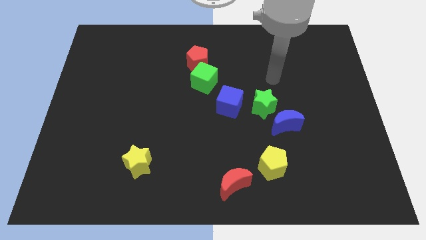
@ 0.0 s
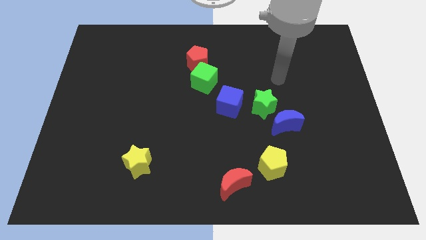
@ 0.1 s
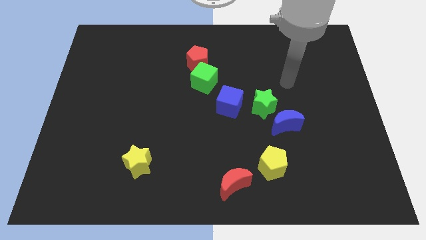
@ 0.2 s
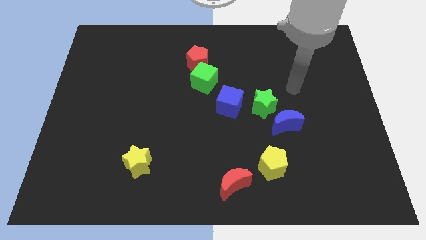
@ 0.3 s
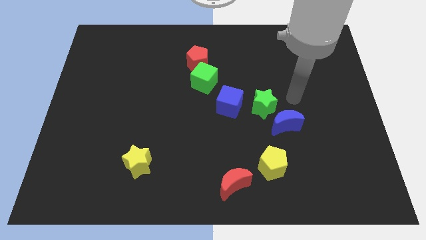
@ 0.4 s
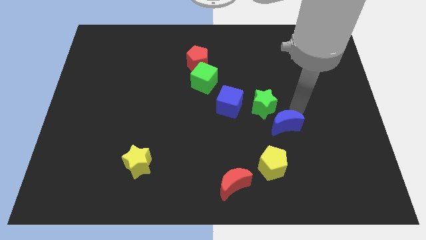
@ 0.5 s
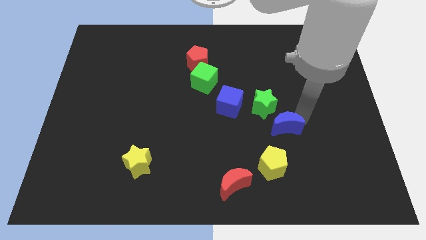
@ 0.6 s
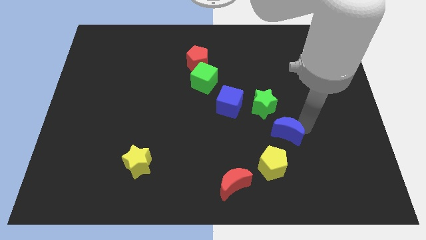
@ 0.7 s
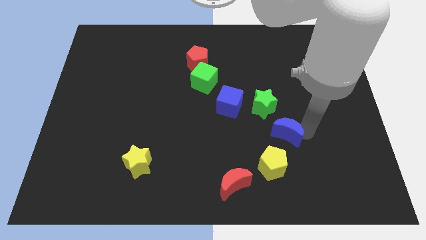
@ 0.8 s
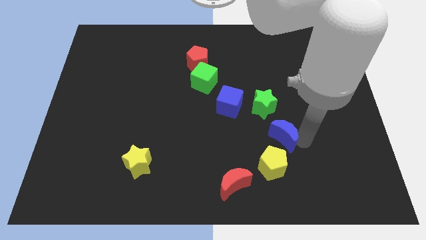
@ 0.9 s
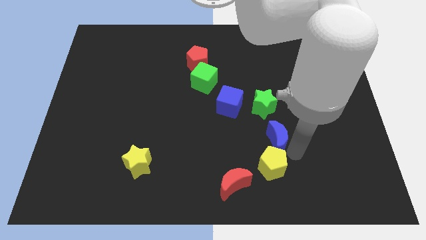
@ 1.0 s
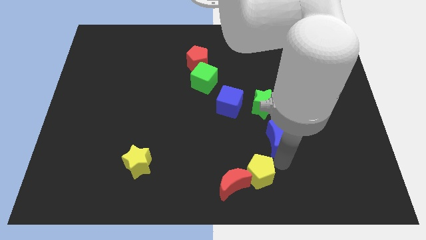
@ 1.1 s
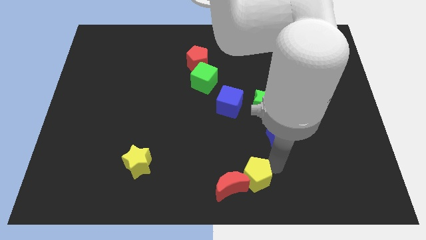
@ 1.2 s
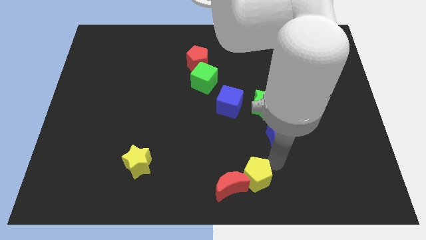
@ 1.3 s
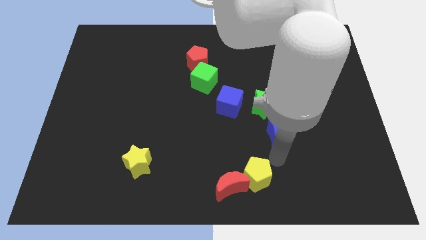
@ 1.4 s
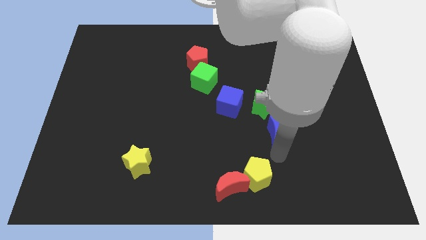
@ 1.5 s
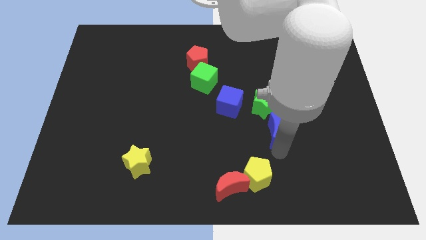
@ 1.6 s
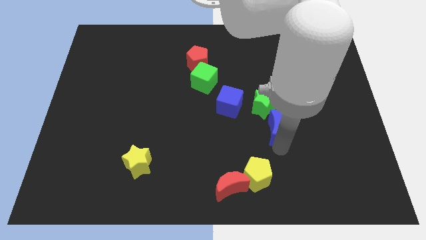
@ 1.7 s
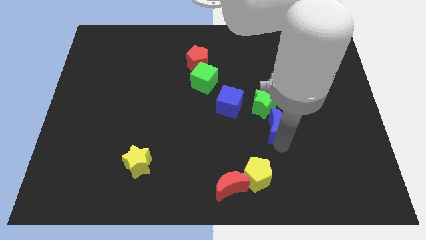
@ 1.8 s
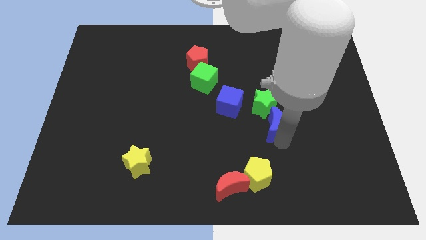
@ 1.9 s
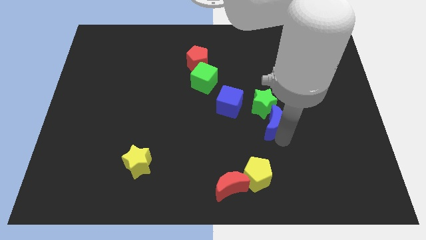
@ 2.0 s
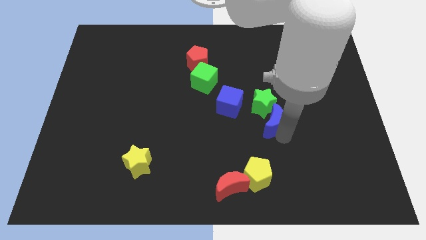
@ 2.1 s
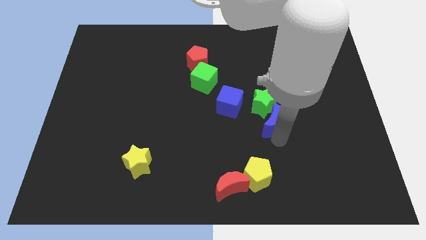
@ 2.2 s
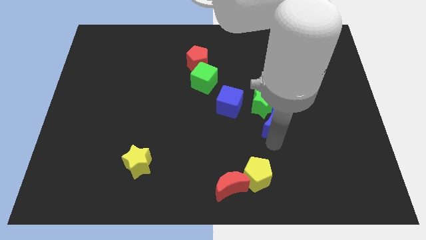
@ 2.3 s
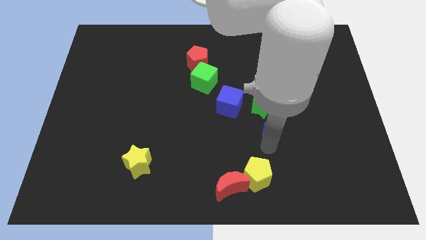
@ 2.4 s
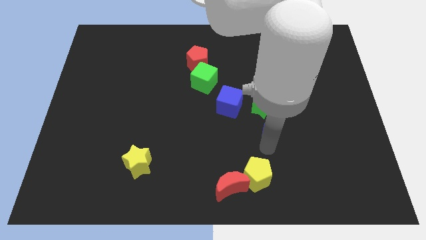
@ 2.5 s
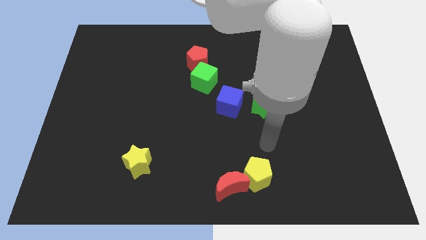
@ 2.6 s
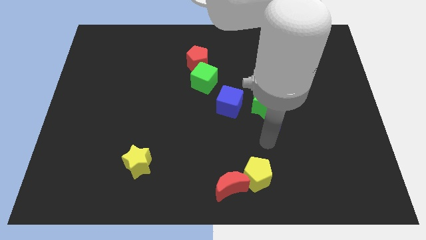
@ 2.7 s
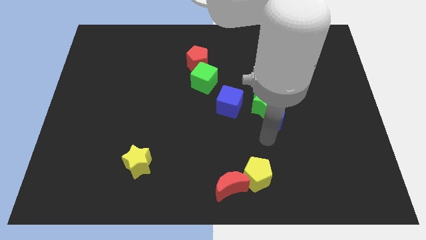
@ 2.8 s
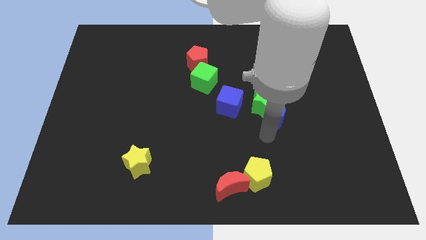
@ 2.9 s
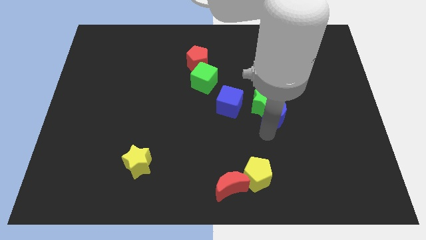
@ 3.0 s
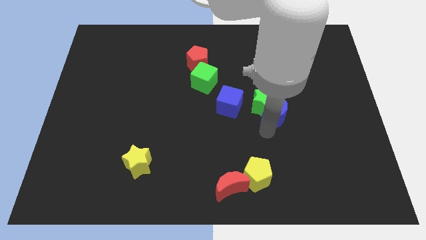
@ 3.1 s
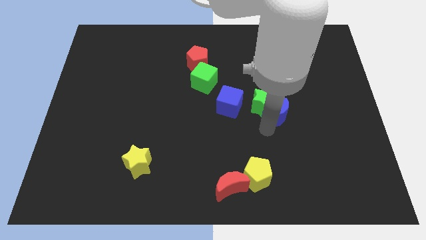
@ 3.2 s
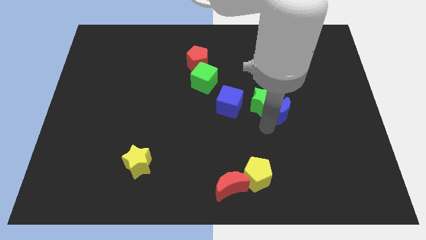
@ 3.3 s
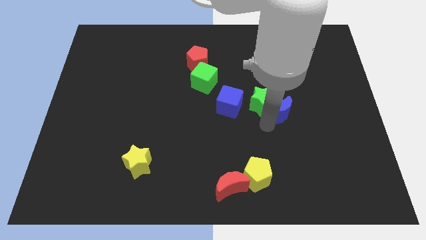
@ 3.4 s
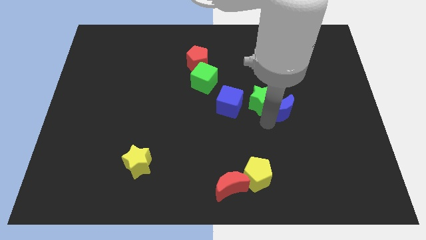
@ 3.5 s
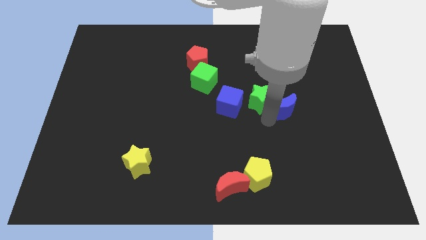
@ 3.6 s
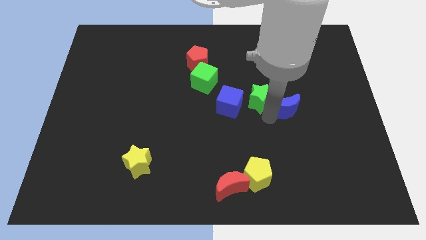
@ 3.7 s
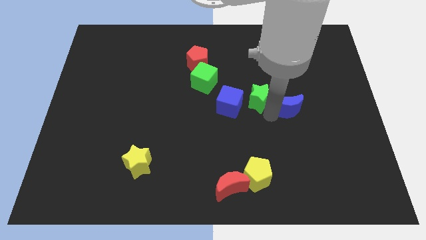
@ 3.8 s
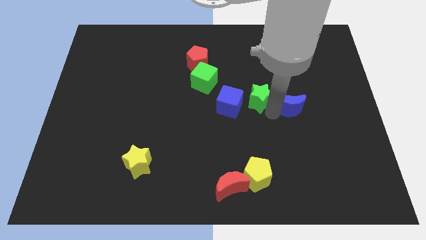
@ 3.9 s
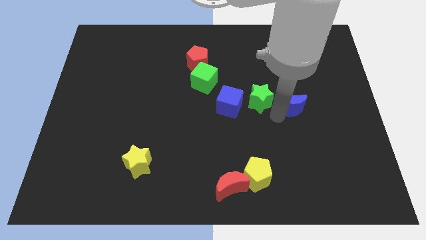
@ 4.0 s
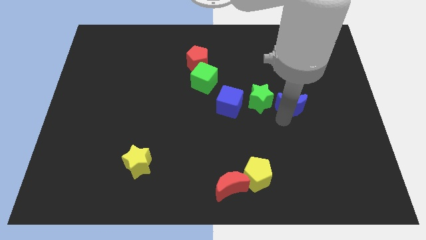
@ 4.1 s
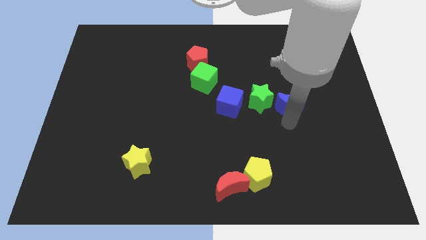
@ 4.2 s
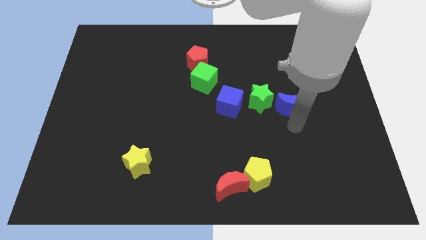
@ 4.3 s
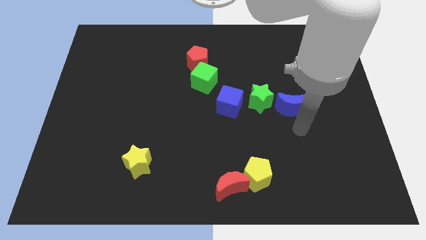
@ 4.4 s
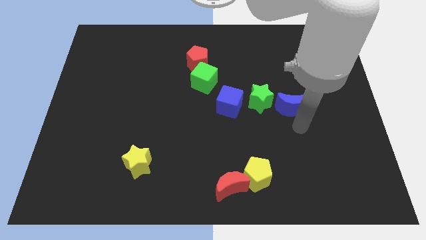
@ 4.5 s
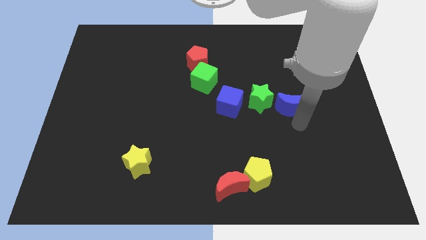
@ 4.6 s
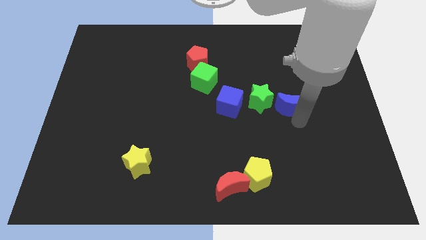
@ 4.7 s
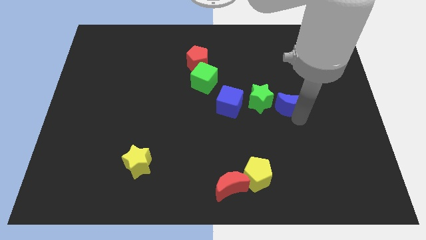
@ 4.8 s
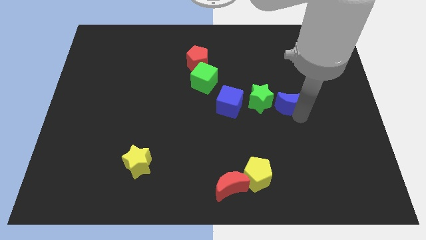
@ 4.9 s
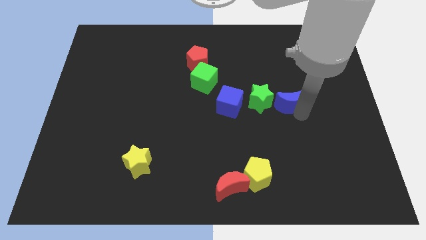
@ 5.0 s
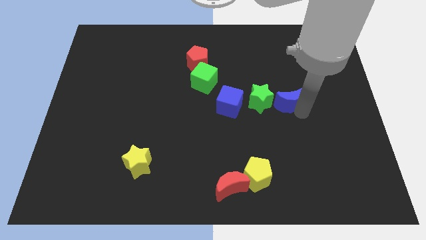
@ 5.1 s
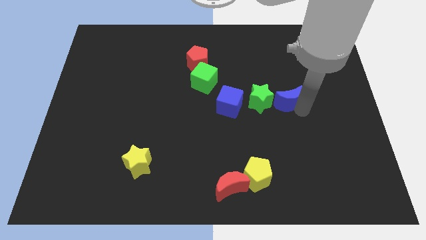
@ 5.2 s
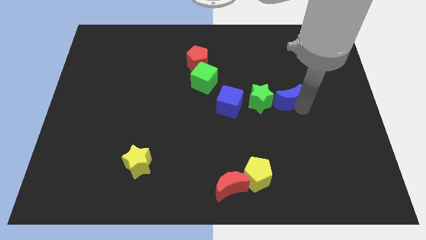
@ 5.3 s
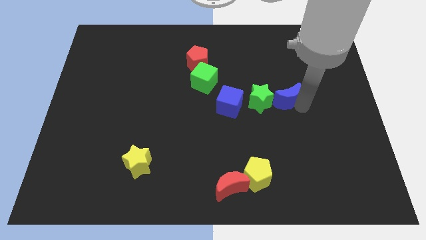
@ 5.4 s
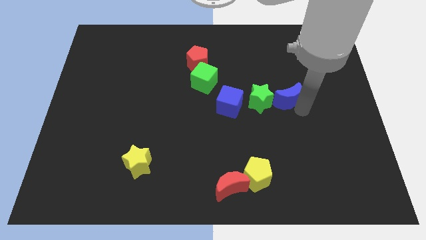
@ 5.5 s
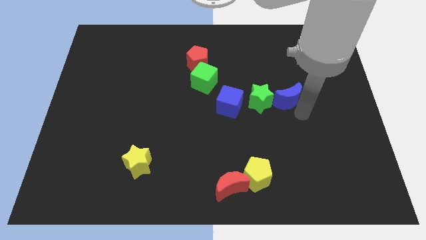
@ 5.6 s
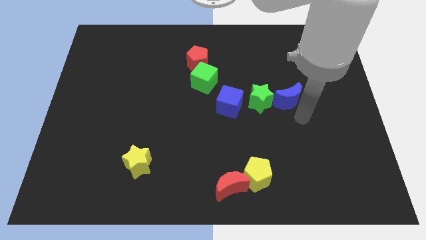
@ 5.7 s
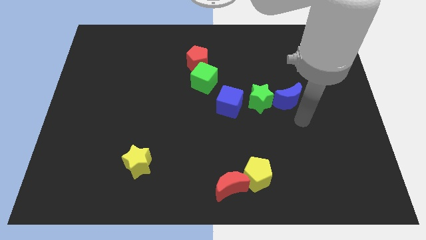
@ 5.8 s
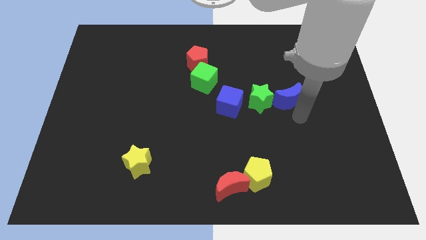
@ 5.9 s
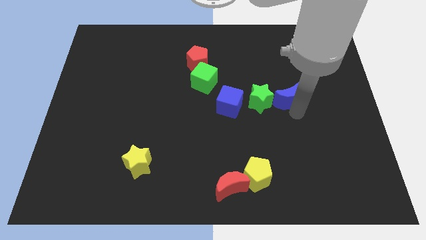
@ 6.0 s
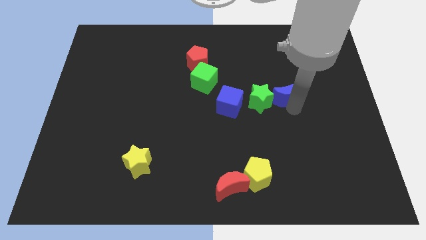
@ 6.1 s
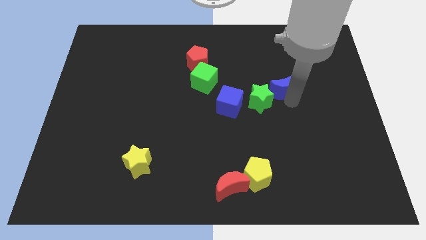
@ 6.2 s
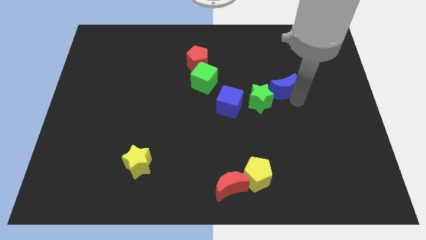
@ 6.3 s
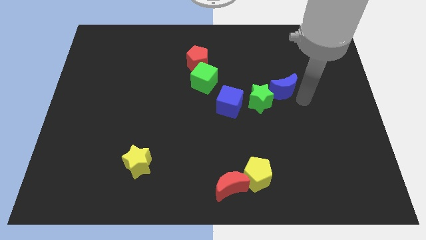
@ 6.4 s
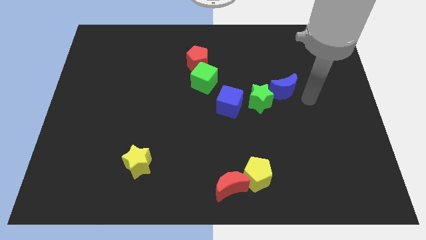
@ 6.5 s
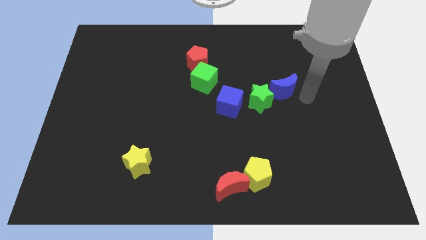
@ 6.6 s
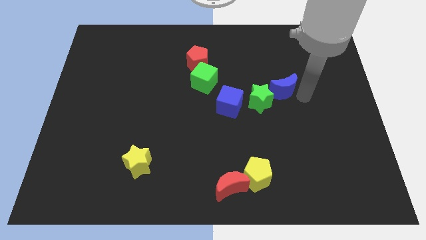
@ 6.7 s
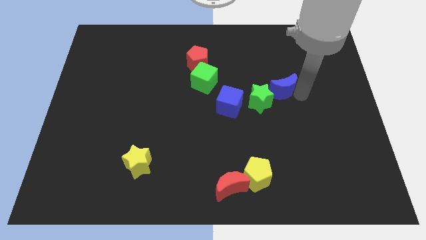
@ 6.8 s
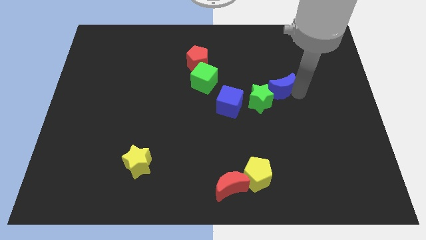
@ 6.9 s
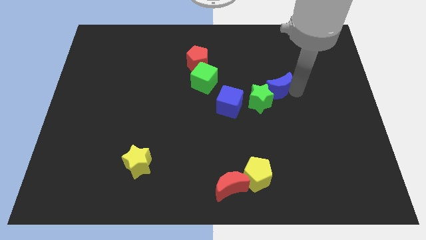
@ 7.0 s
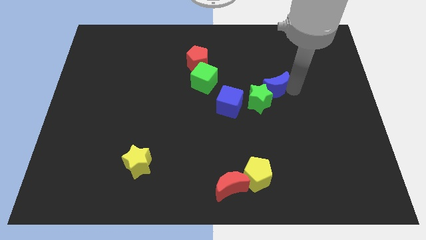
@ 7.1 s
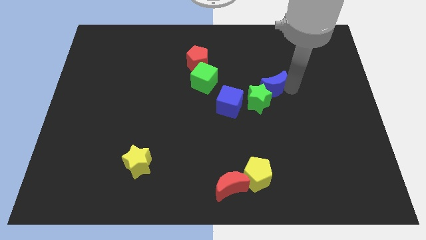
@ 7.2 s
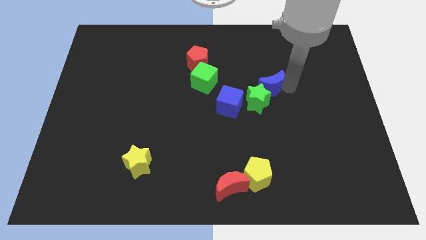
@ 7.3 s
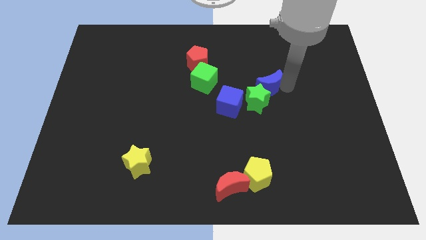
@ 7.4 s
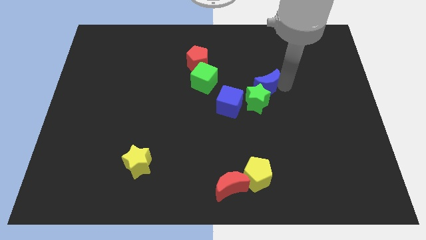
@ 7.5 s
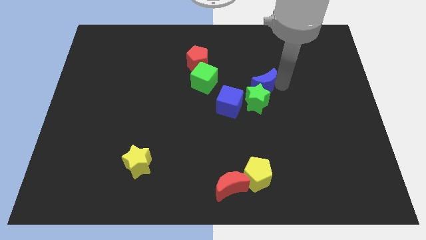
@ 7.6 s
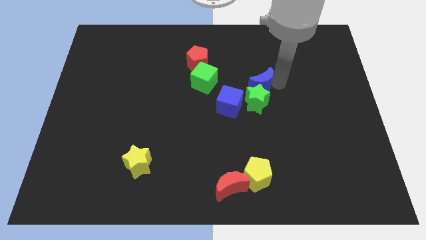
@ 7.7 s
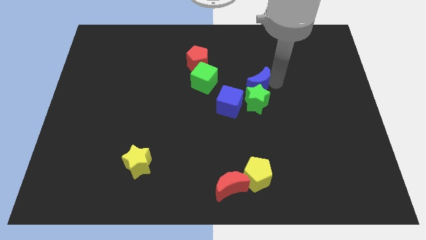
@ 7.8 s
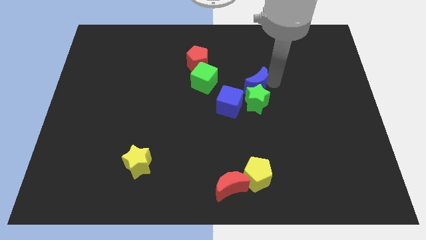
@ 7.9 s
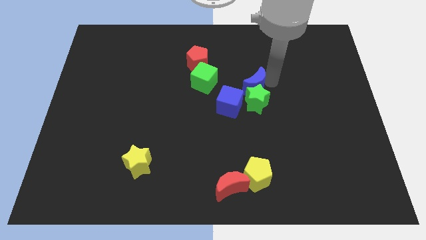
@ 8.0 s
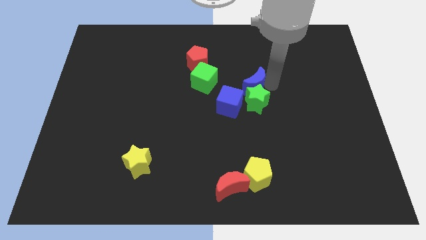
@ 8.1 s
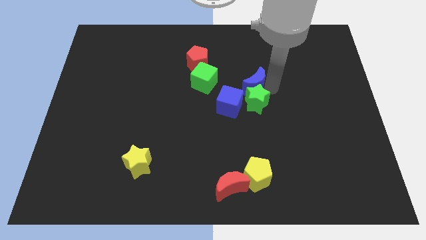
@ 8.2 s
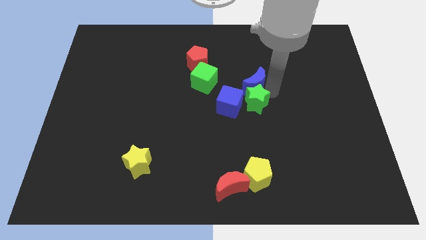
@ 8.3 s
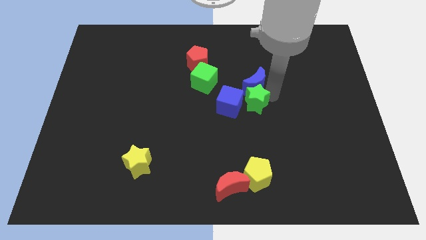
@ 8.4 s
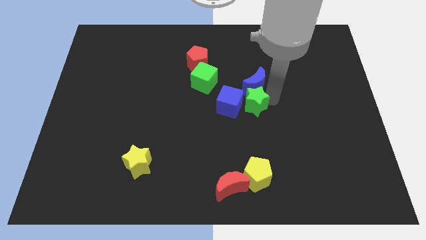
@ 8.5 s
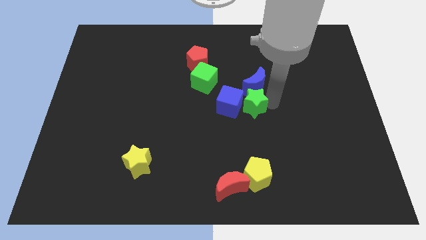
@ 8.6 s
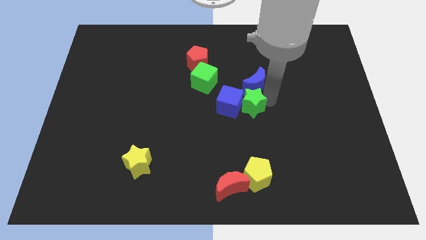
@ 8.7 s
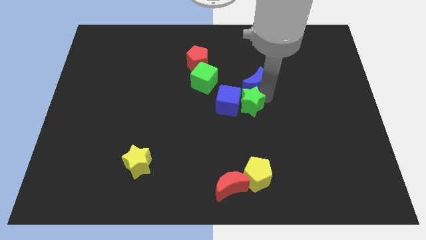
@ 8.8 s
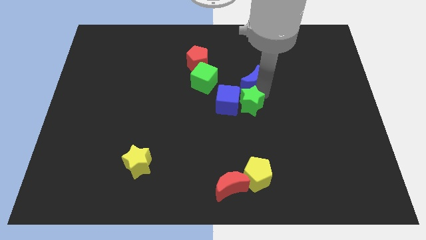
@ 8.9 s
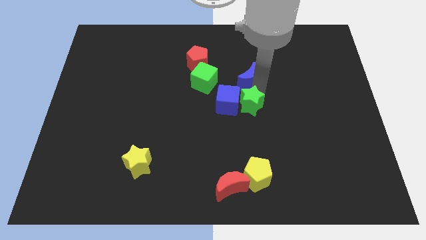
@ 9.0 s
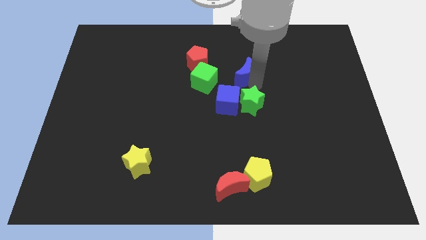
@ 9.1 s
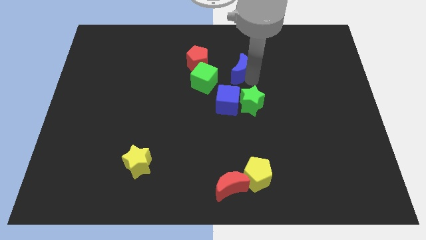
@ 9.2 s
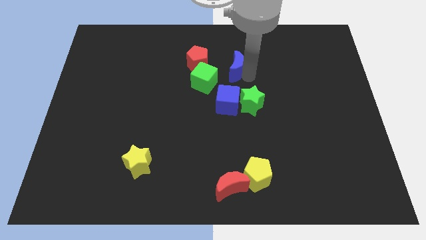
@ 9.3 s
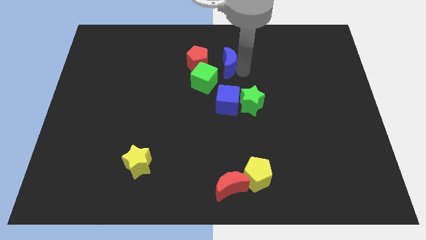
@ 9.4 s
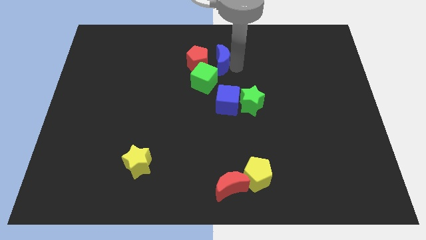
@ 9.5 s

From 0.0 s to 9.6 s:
push the blue moon to the red pentagon
